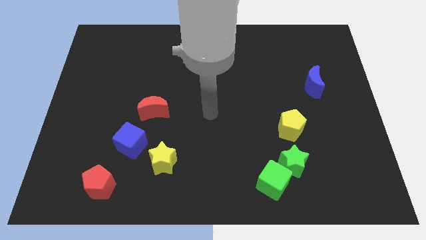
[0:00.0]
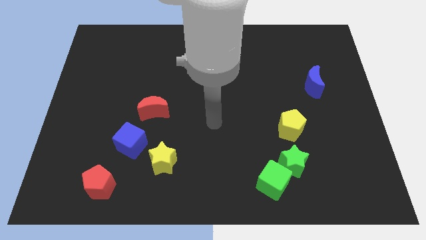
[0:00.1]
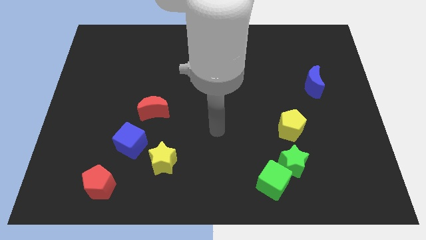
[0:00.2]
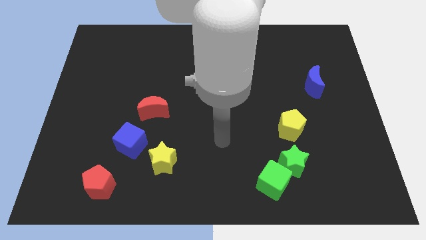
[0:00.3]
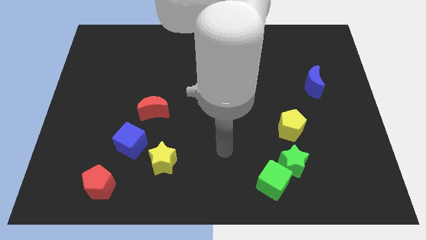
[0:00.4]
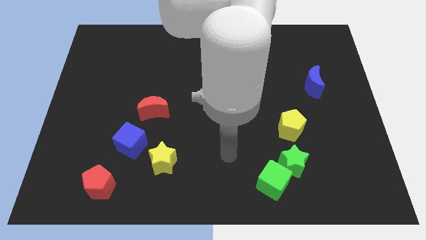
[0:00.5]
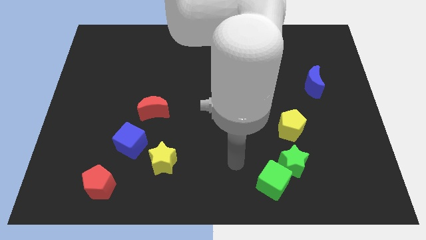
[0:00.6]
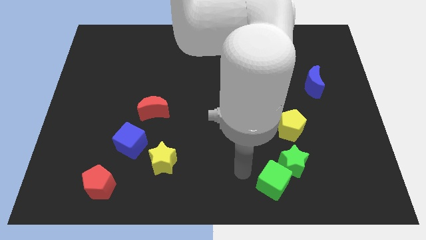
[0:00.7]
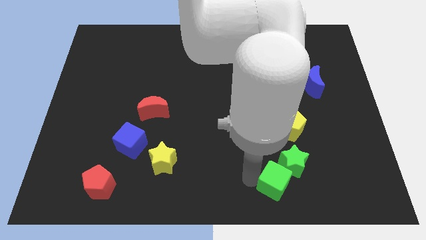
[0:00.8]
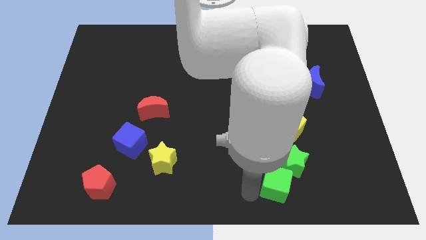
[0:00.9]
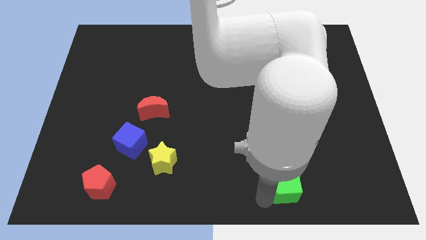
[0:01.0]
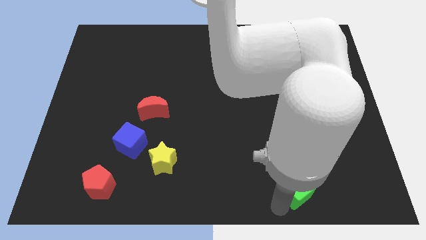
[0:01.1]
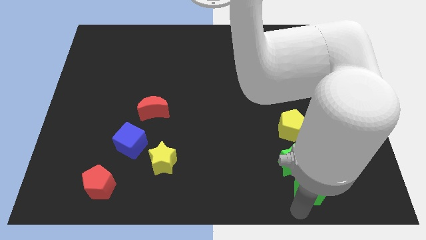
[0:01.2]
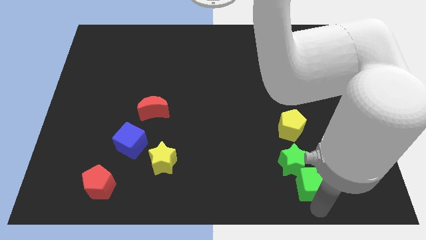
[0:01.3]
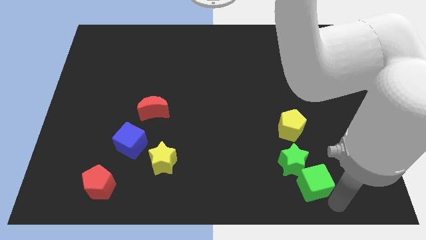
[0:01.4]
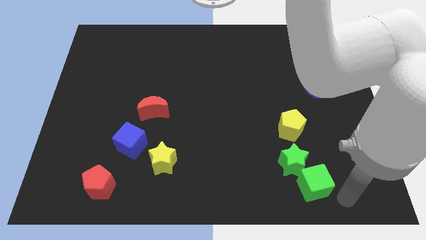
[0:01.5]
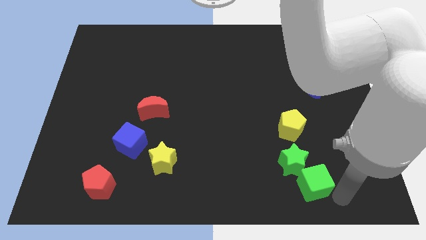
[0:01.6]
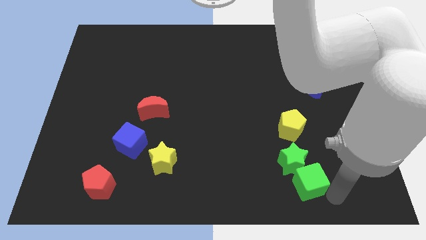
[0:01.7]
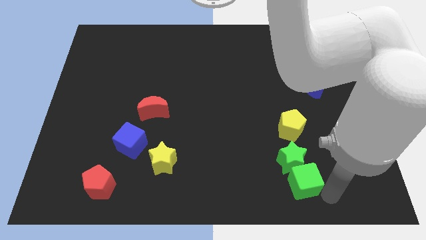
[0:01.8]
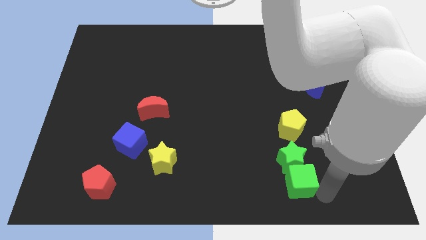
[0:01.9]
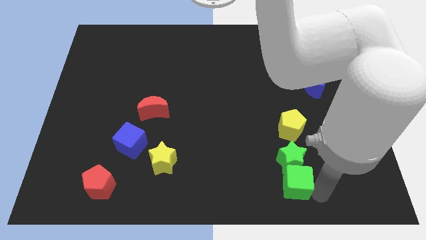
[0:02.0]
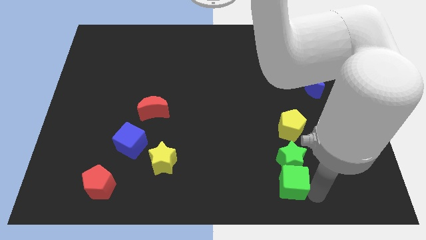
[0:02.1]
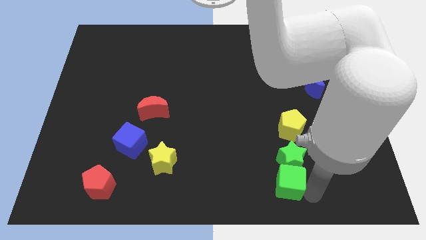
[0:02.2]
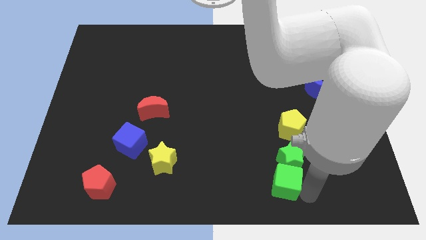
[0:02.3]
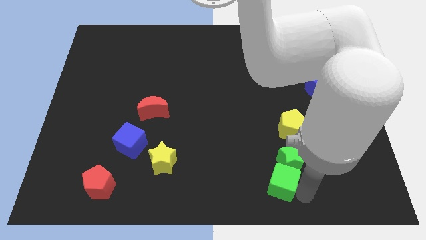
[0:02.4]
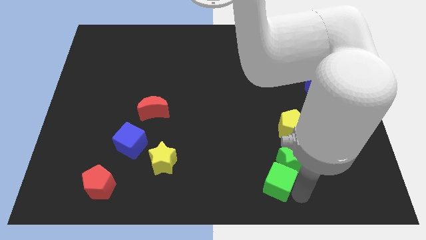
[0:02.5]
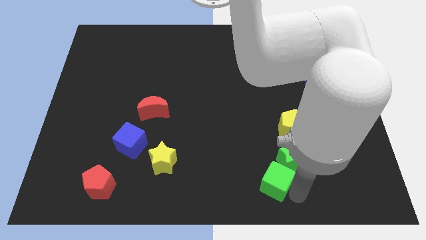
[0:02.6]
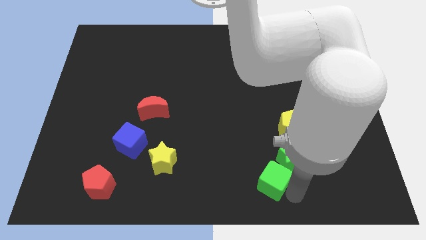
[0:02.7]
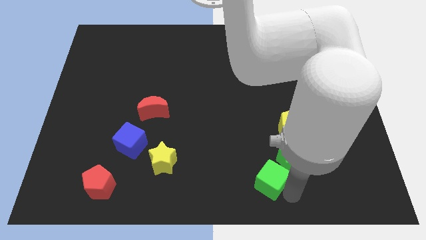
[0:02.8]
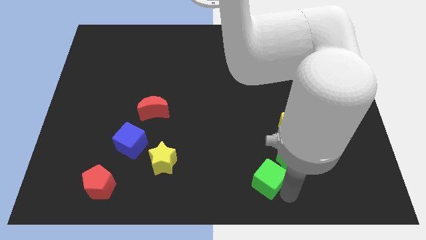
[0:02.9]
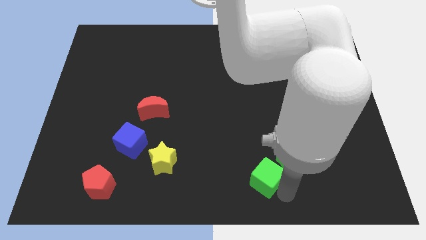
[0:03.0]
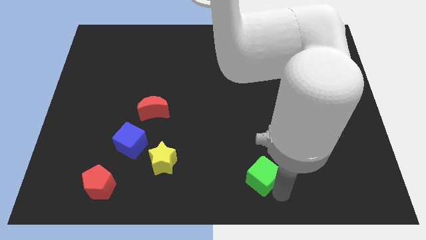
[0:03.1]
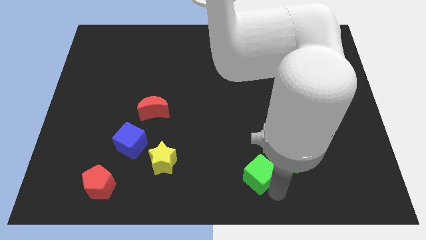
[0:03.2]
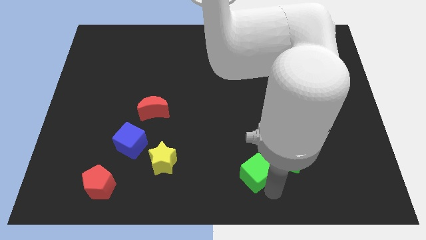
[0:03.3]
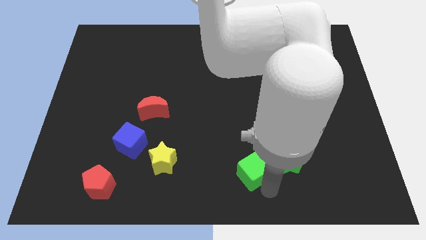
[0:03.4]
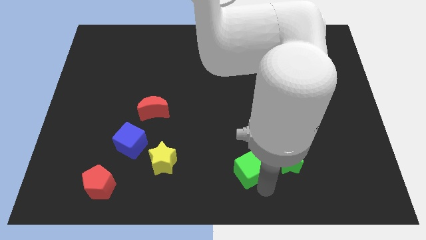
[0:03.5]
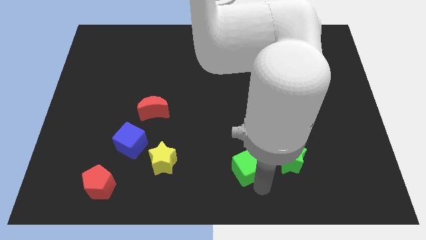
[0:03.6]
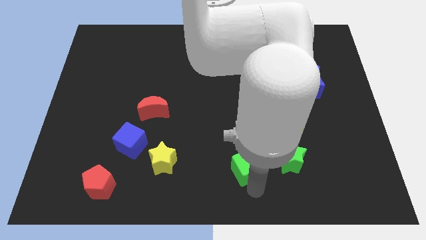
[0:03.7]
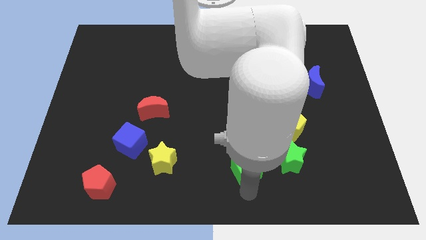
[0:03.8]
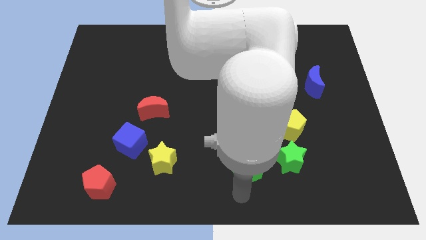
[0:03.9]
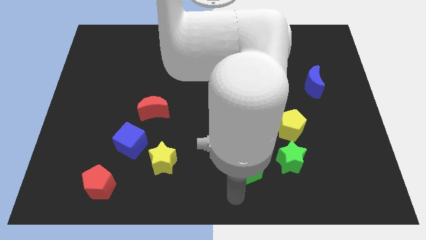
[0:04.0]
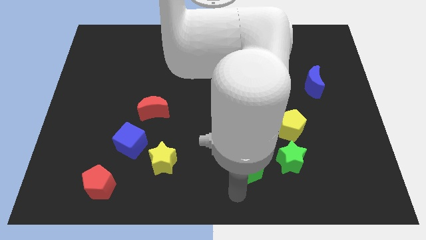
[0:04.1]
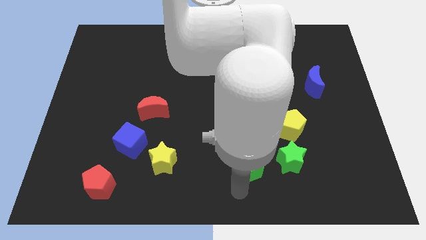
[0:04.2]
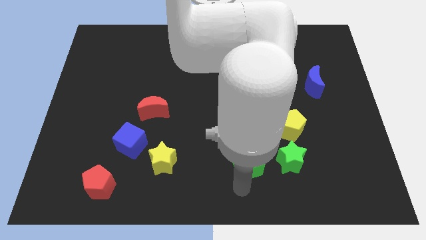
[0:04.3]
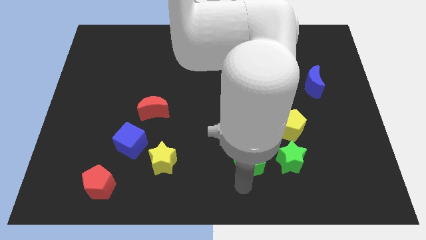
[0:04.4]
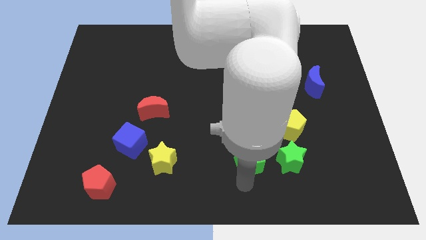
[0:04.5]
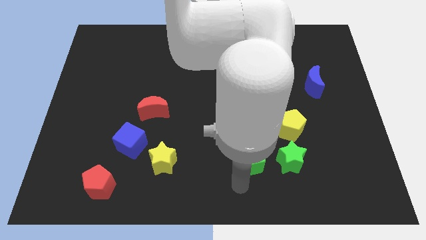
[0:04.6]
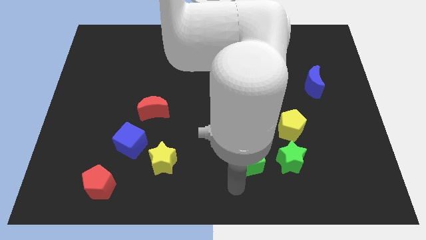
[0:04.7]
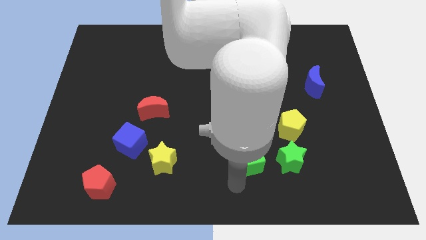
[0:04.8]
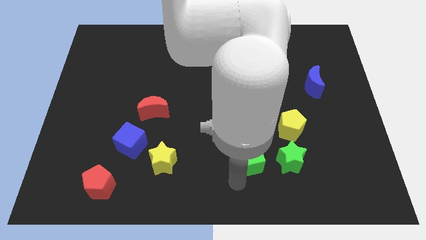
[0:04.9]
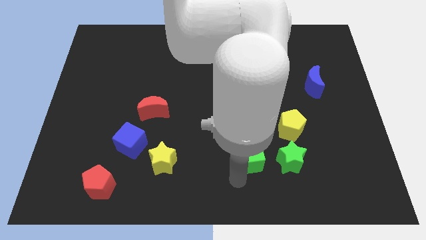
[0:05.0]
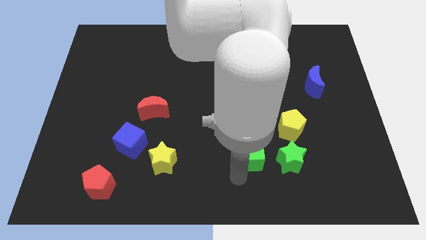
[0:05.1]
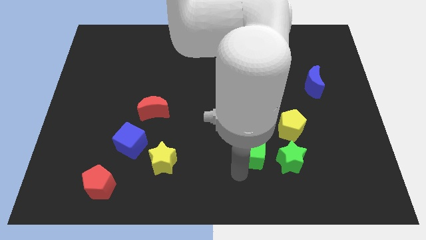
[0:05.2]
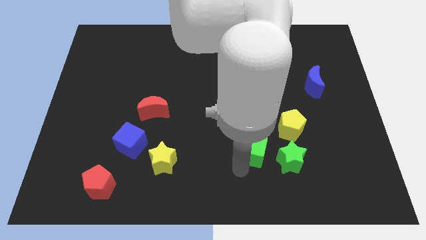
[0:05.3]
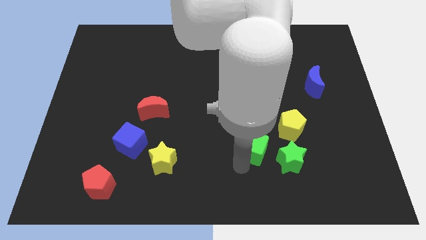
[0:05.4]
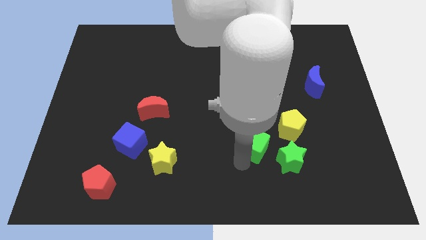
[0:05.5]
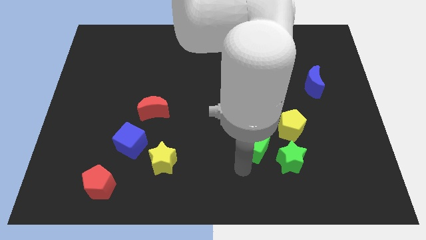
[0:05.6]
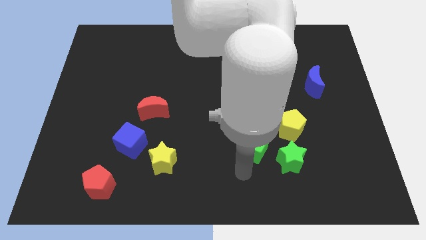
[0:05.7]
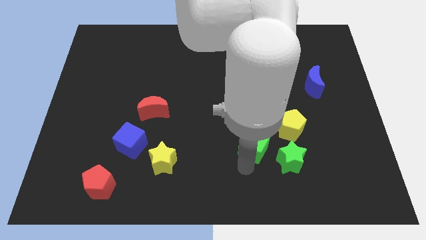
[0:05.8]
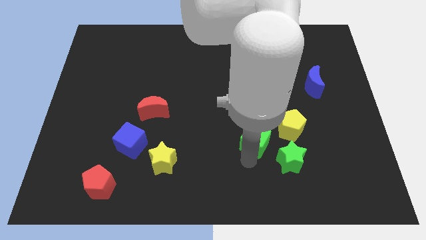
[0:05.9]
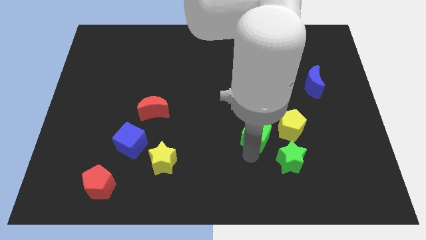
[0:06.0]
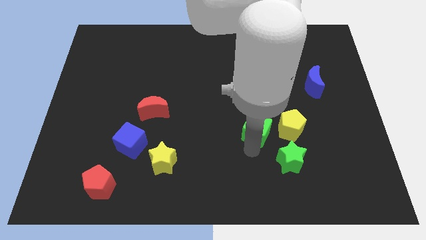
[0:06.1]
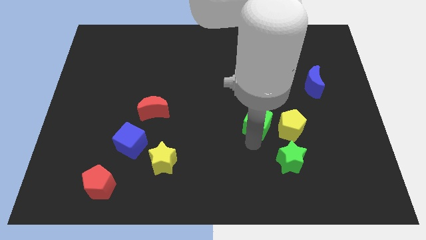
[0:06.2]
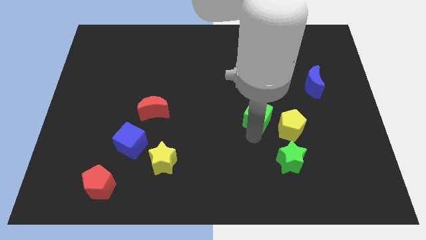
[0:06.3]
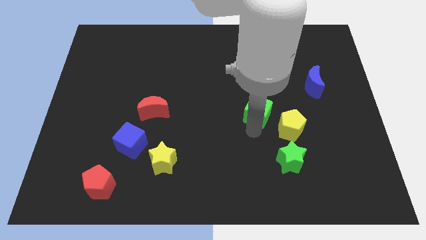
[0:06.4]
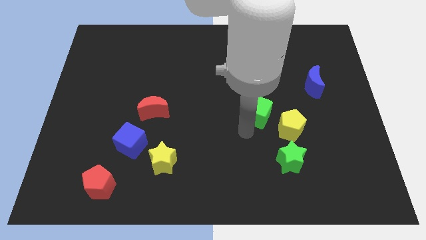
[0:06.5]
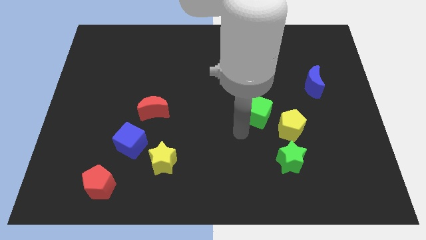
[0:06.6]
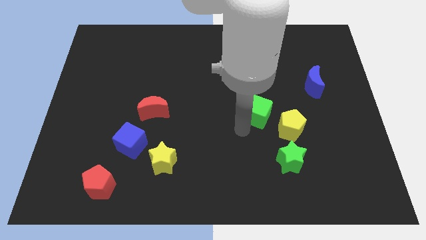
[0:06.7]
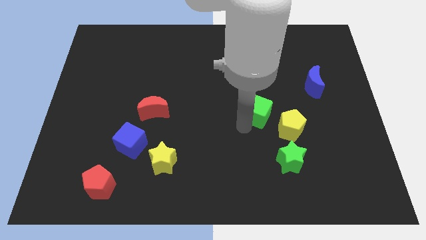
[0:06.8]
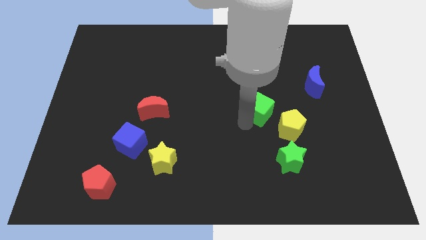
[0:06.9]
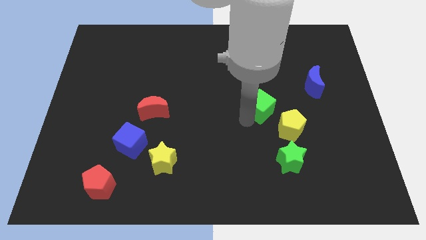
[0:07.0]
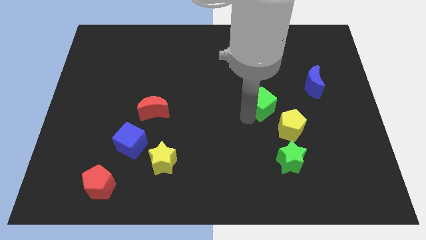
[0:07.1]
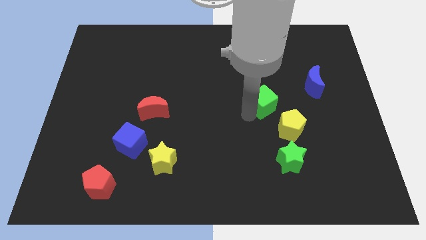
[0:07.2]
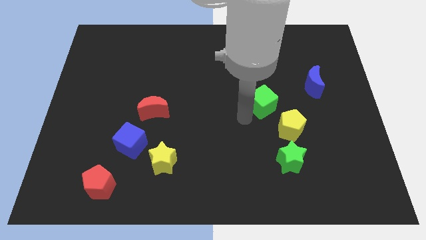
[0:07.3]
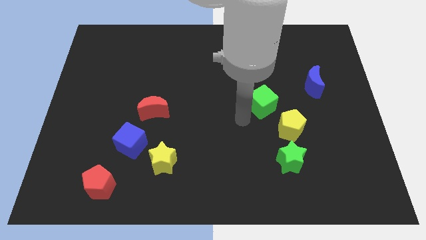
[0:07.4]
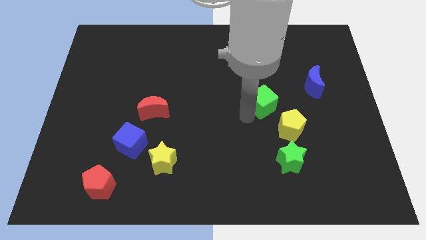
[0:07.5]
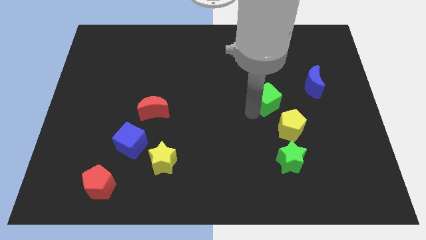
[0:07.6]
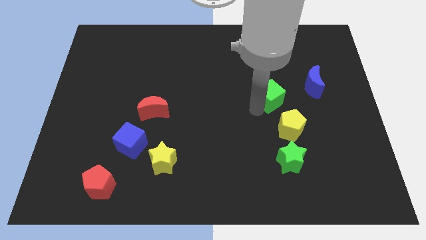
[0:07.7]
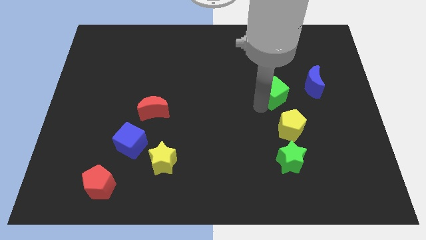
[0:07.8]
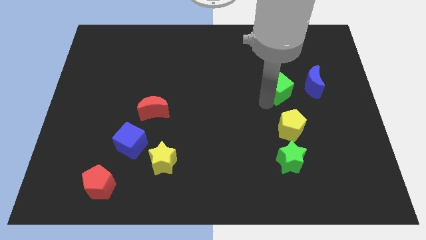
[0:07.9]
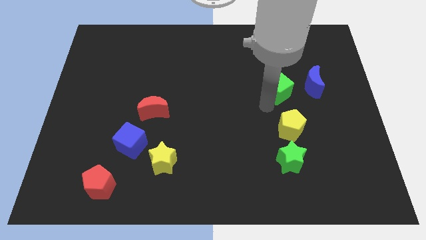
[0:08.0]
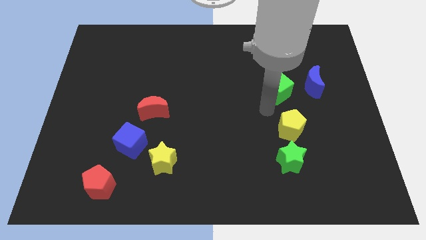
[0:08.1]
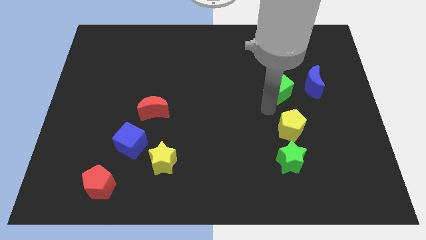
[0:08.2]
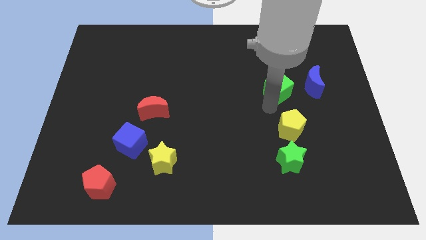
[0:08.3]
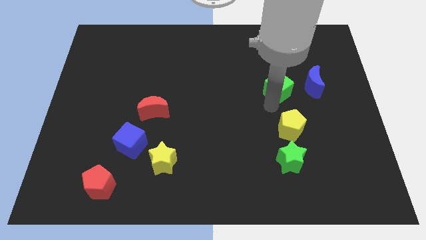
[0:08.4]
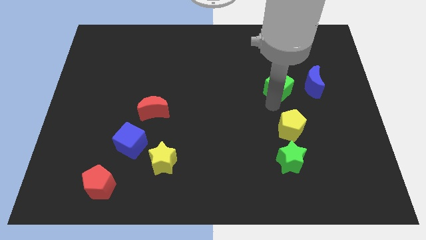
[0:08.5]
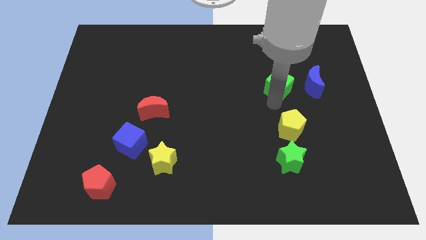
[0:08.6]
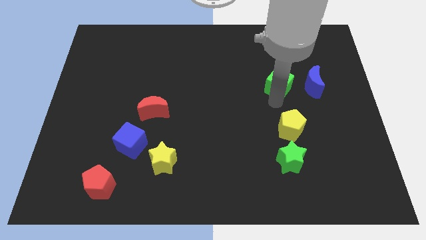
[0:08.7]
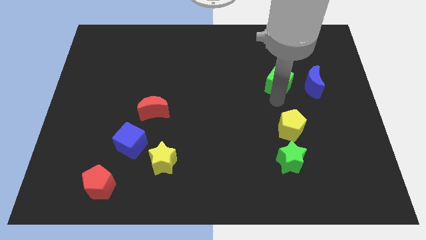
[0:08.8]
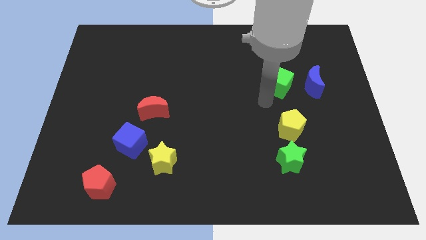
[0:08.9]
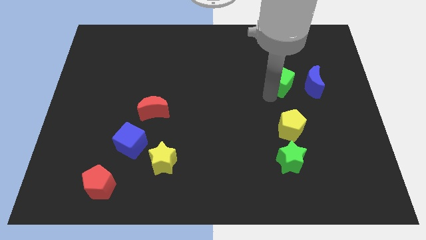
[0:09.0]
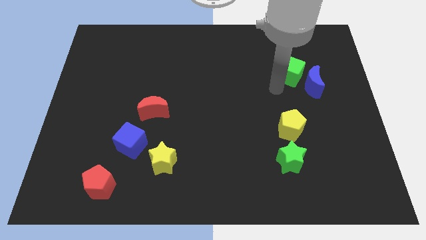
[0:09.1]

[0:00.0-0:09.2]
push the green cube to the top side of the blue moon
